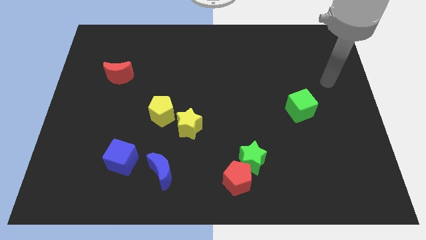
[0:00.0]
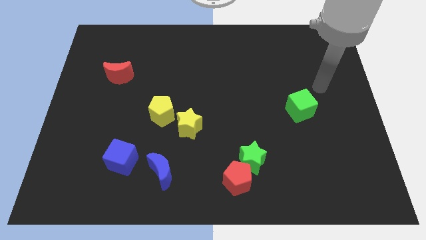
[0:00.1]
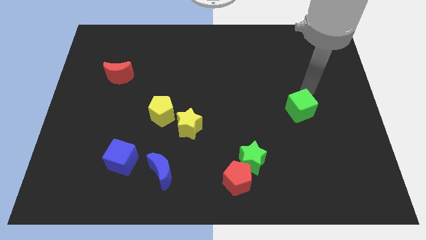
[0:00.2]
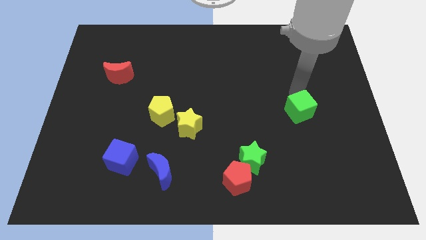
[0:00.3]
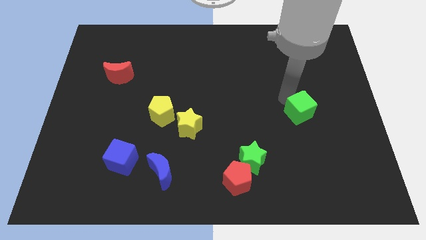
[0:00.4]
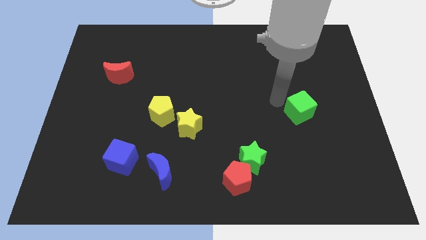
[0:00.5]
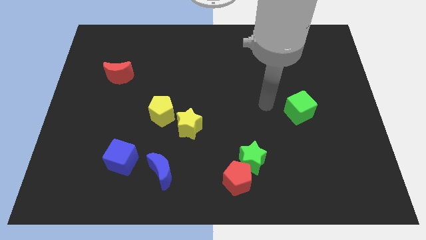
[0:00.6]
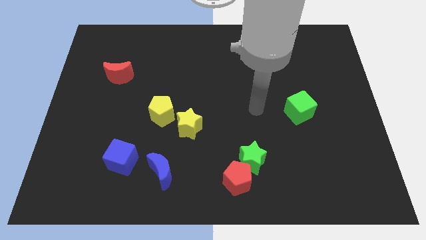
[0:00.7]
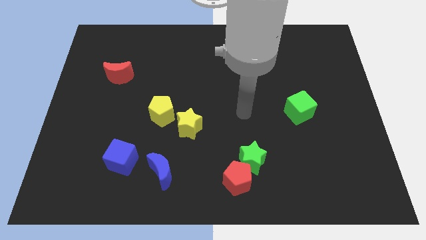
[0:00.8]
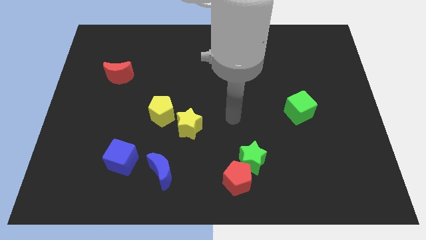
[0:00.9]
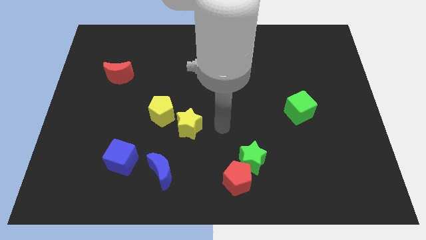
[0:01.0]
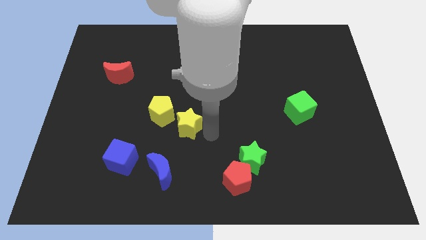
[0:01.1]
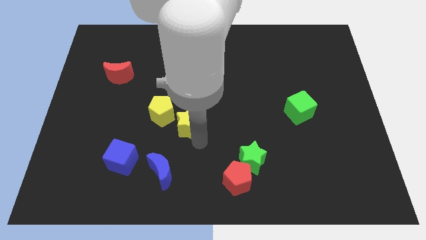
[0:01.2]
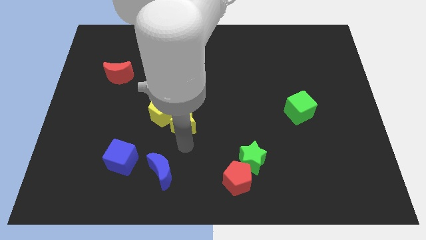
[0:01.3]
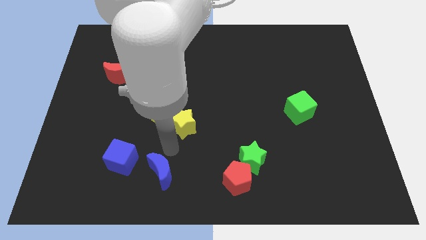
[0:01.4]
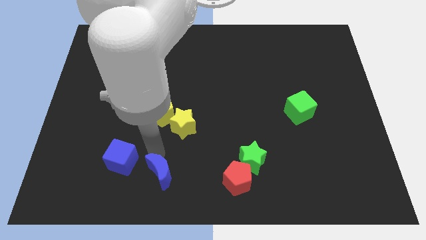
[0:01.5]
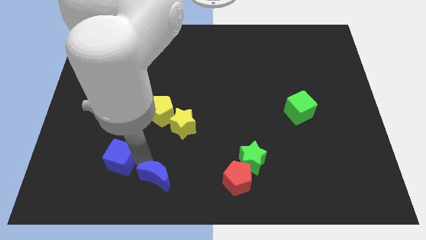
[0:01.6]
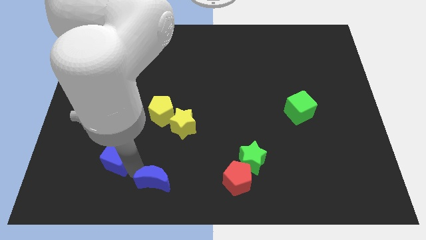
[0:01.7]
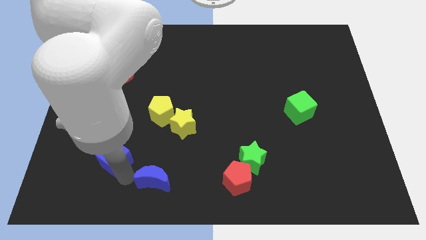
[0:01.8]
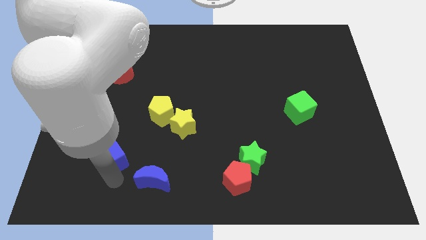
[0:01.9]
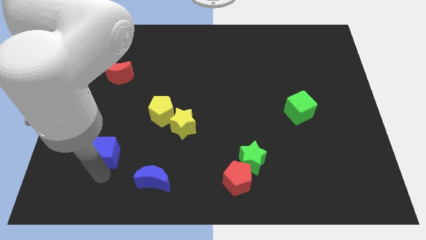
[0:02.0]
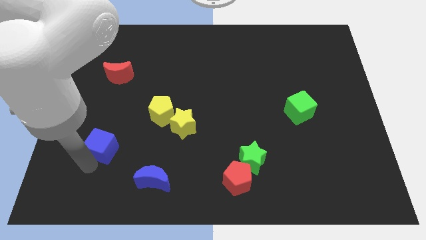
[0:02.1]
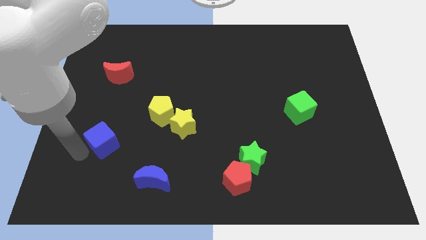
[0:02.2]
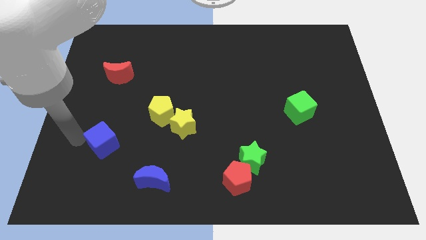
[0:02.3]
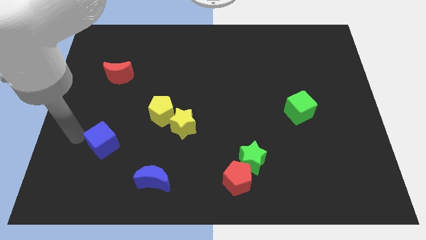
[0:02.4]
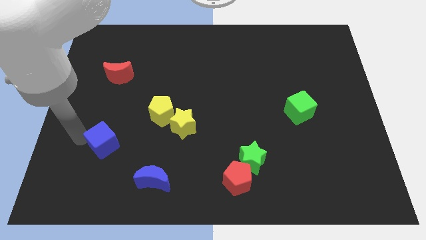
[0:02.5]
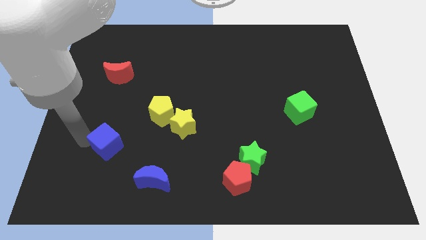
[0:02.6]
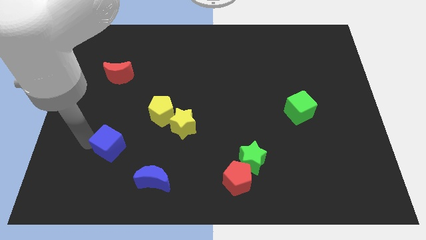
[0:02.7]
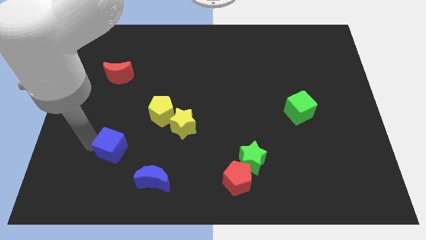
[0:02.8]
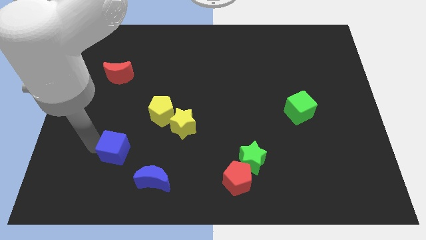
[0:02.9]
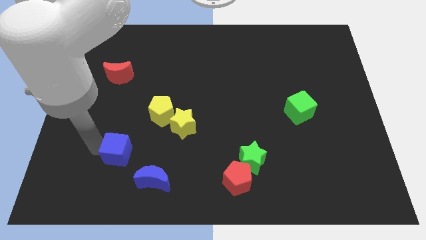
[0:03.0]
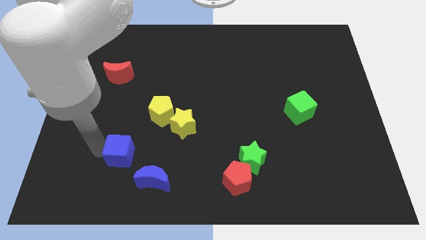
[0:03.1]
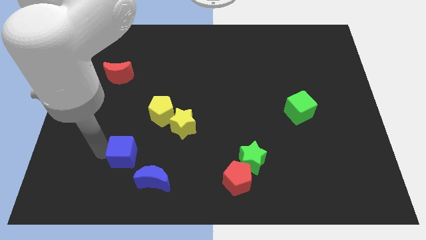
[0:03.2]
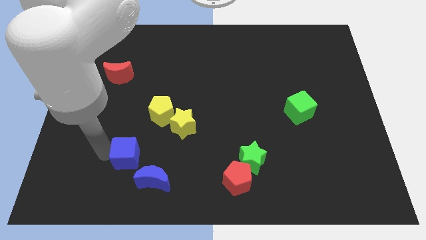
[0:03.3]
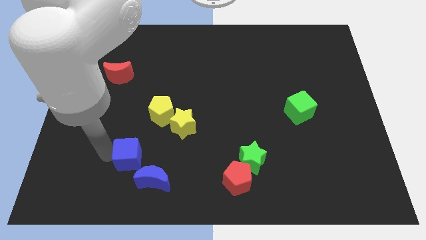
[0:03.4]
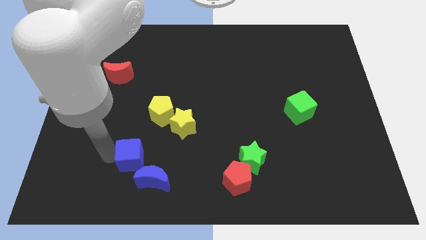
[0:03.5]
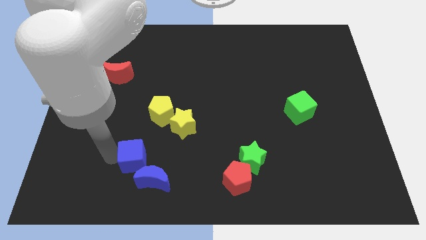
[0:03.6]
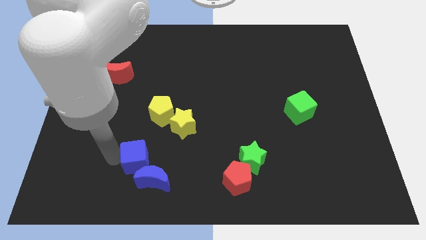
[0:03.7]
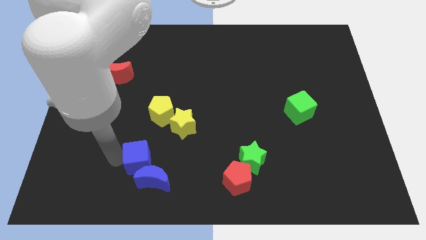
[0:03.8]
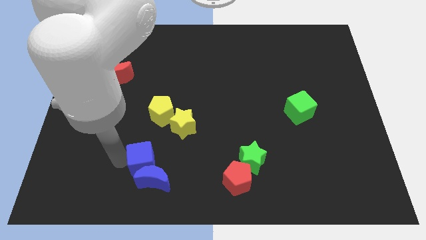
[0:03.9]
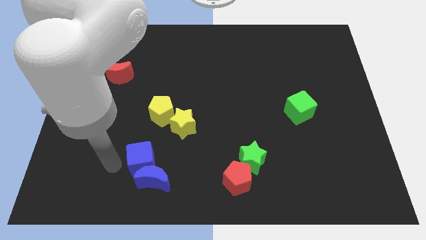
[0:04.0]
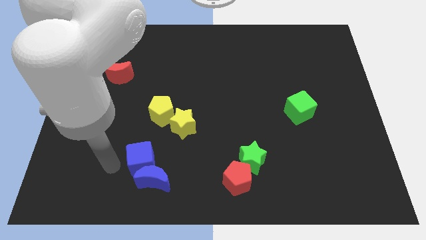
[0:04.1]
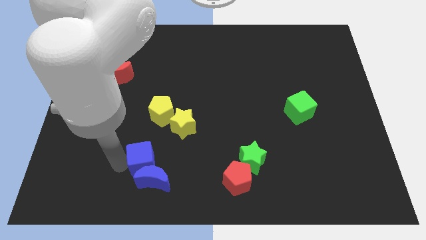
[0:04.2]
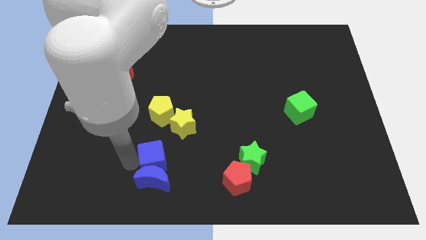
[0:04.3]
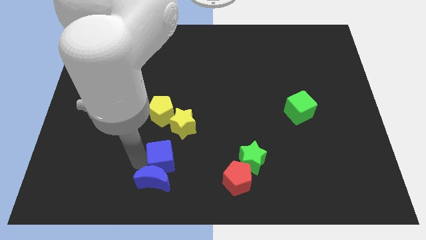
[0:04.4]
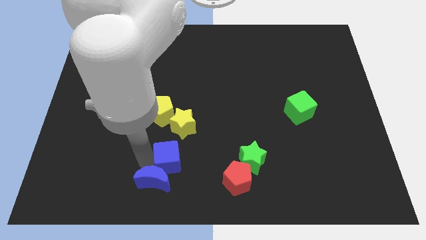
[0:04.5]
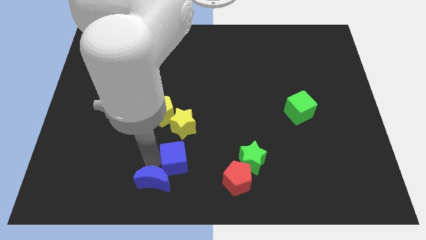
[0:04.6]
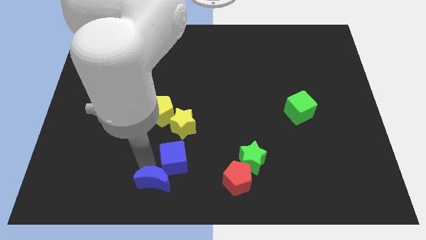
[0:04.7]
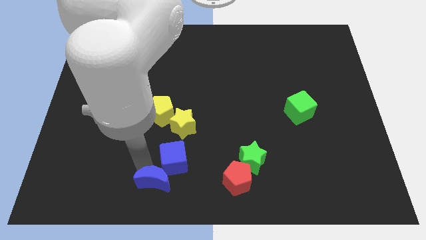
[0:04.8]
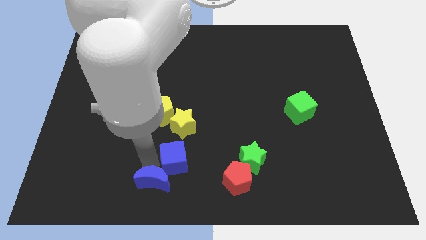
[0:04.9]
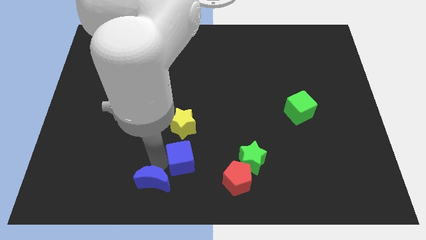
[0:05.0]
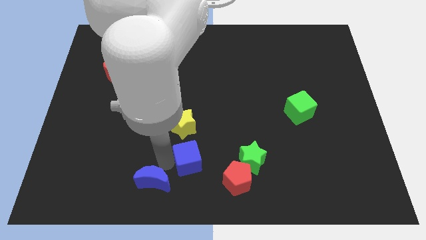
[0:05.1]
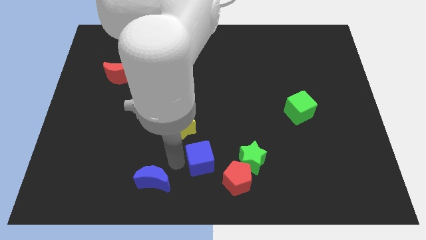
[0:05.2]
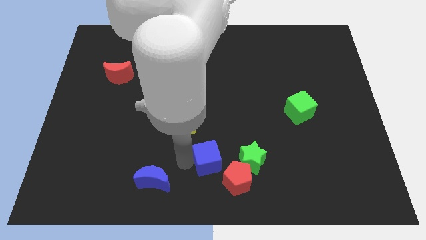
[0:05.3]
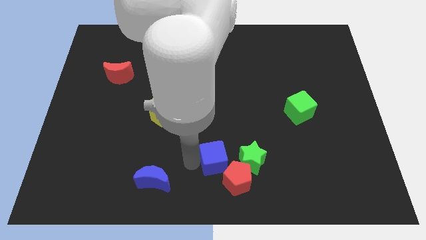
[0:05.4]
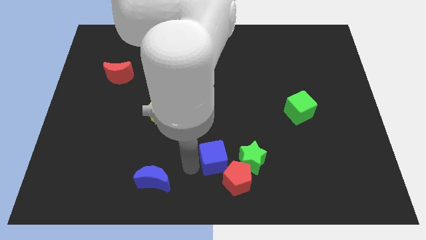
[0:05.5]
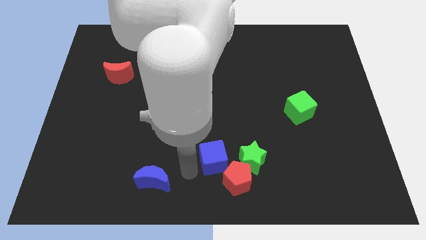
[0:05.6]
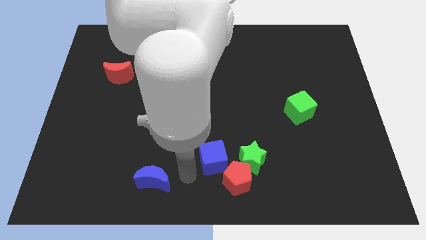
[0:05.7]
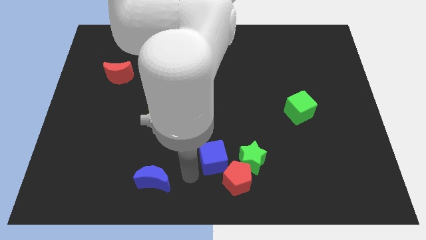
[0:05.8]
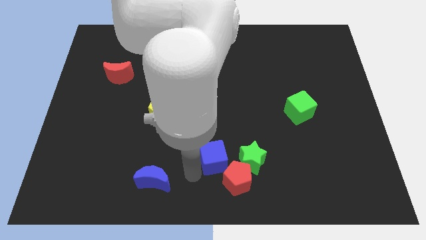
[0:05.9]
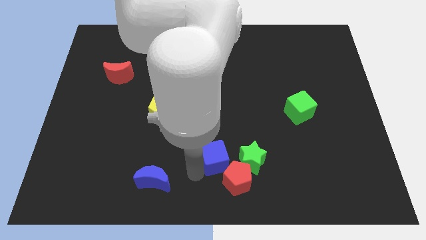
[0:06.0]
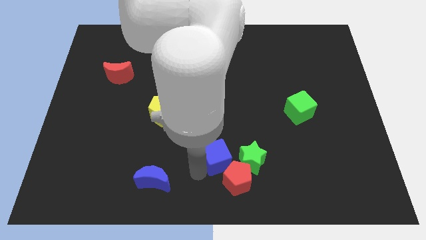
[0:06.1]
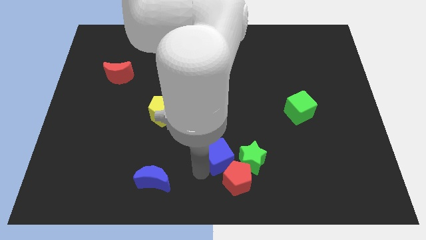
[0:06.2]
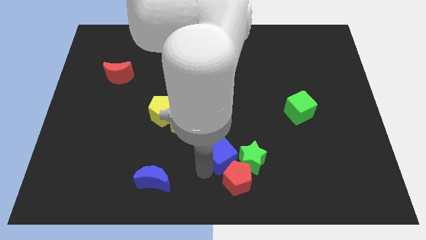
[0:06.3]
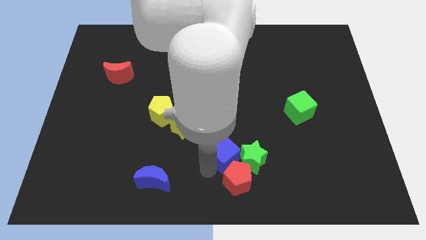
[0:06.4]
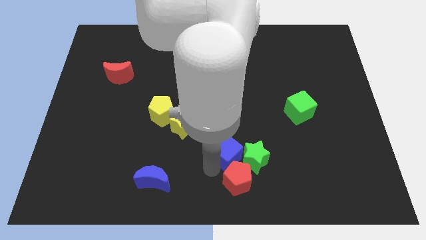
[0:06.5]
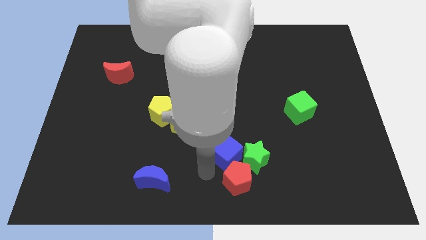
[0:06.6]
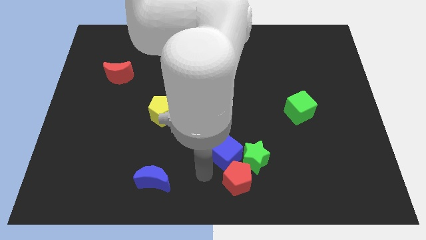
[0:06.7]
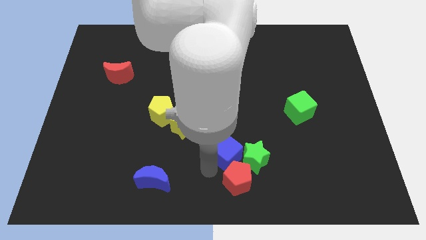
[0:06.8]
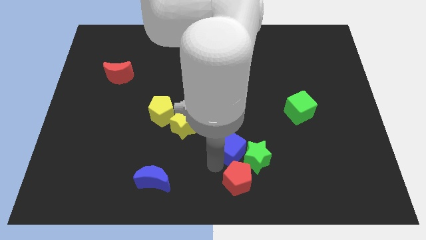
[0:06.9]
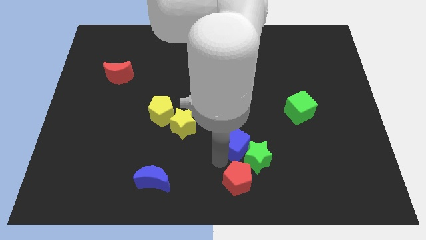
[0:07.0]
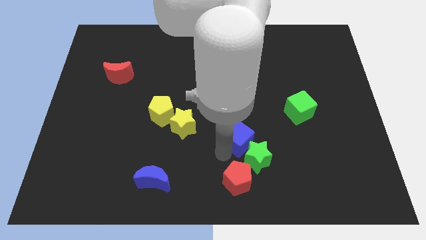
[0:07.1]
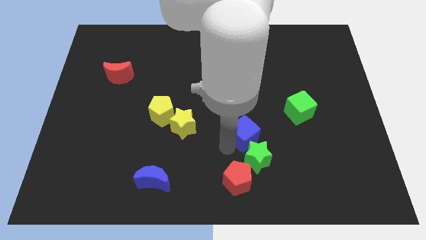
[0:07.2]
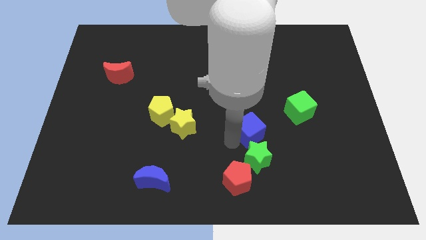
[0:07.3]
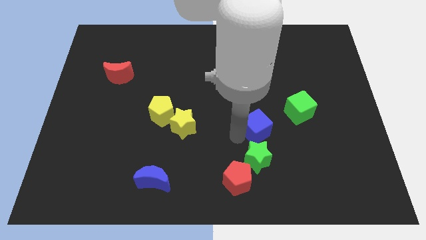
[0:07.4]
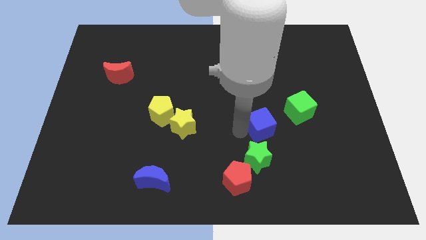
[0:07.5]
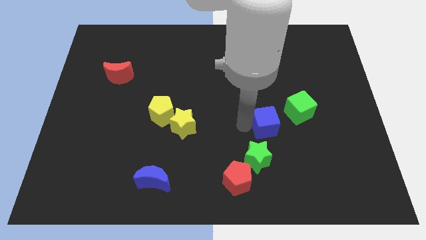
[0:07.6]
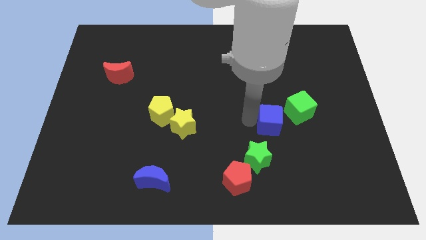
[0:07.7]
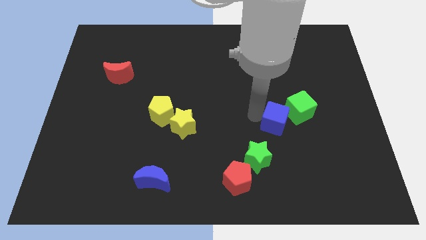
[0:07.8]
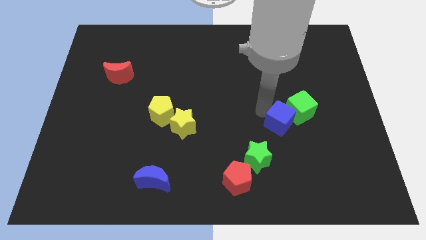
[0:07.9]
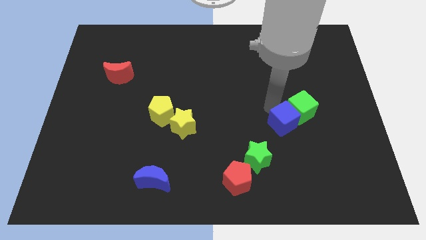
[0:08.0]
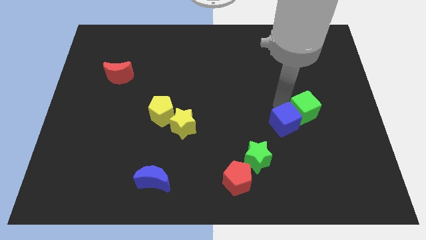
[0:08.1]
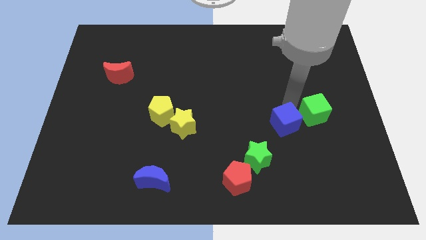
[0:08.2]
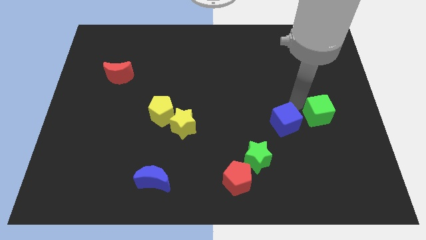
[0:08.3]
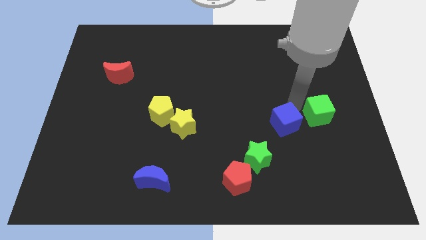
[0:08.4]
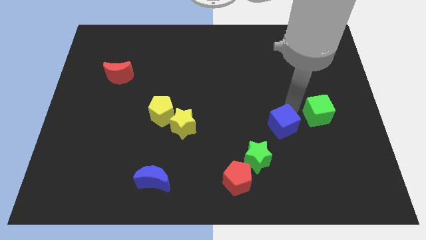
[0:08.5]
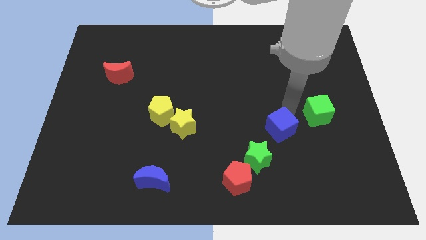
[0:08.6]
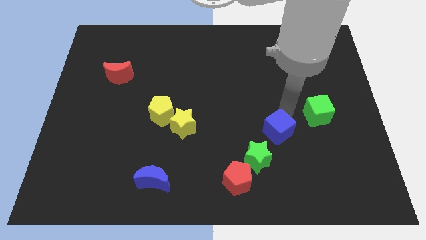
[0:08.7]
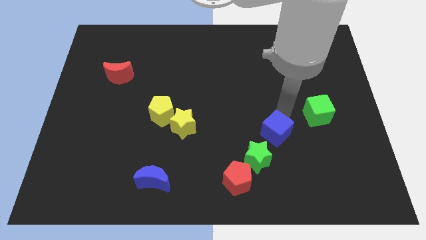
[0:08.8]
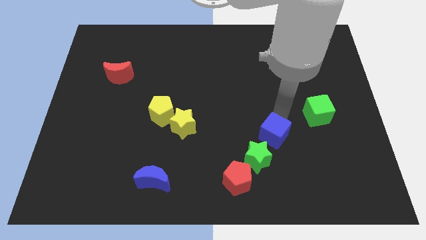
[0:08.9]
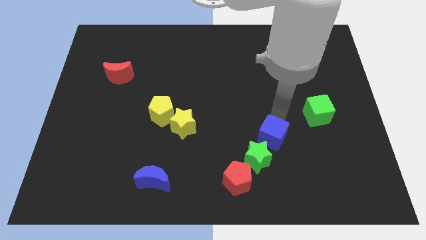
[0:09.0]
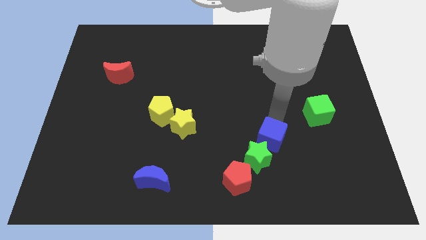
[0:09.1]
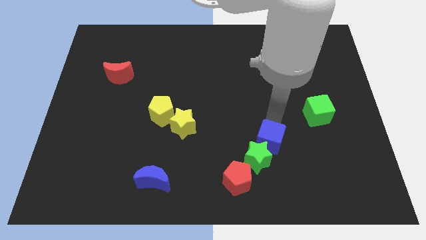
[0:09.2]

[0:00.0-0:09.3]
move the blue cube to the top right of the red pentagon
